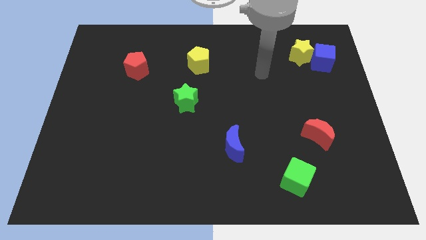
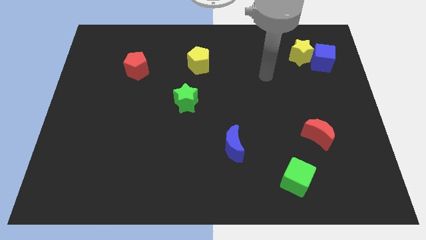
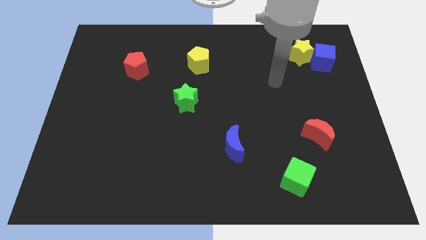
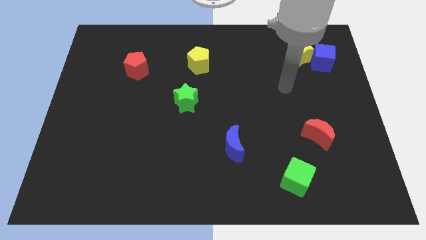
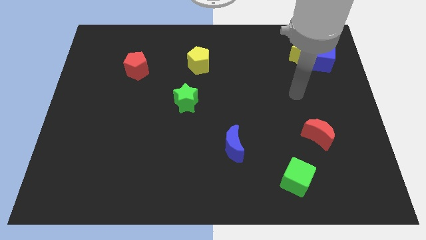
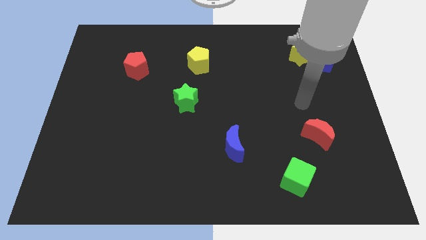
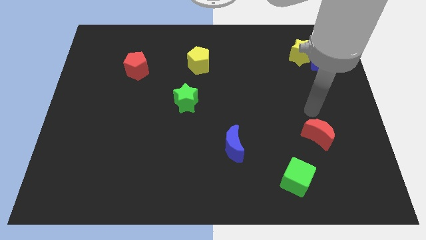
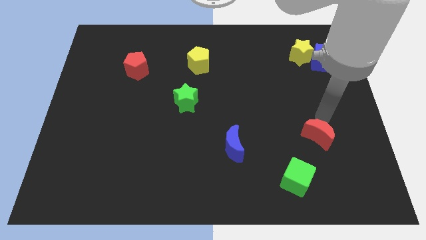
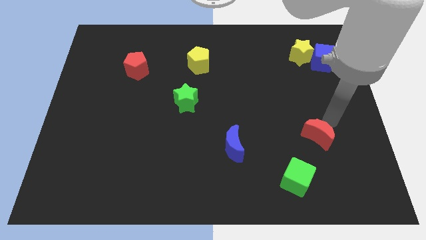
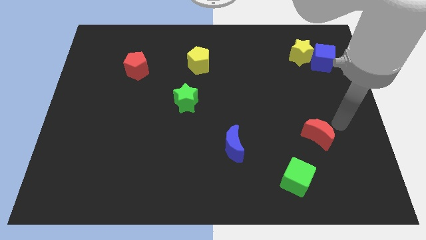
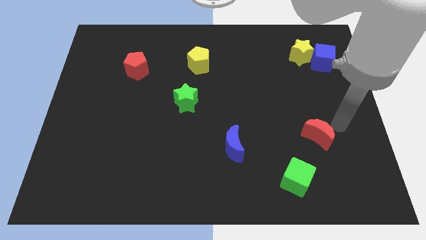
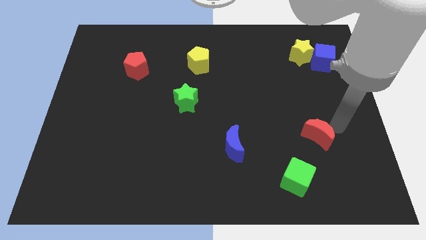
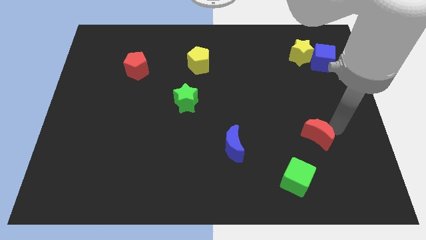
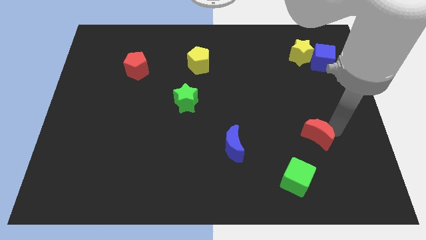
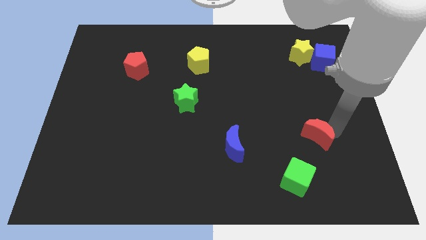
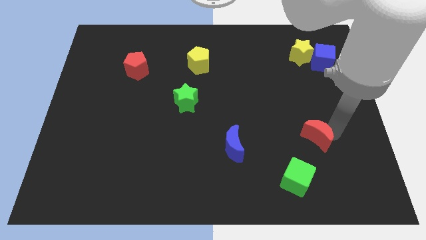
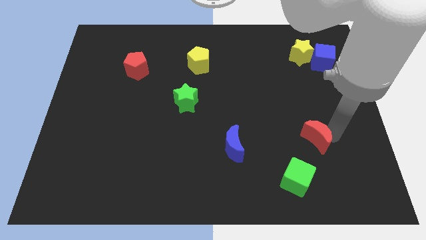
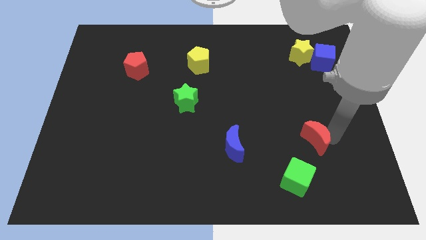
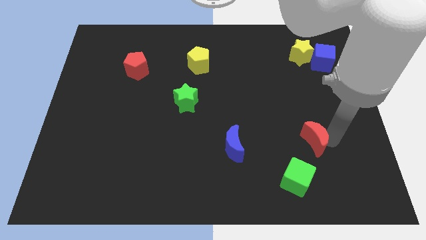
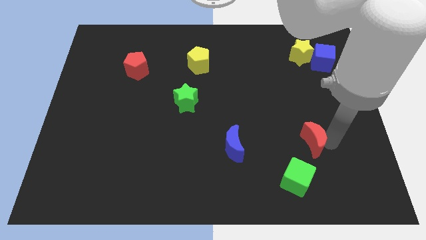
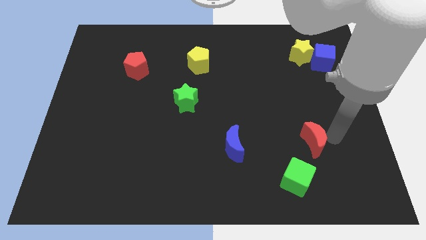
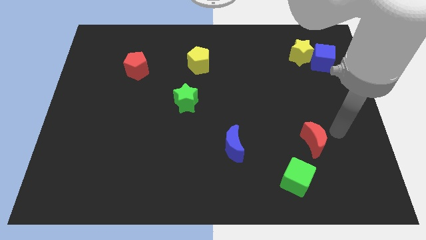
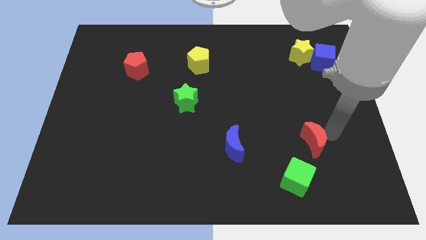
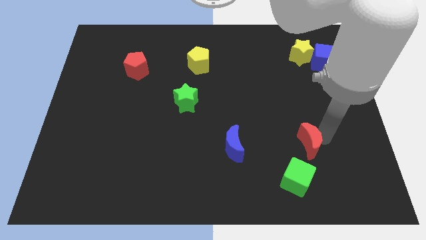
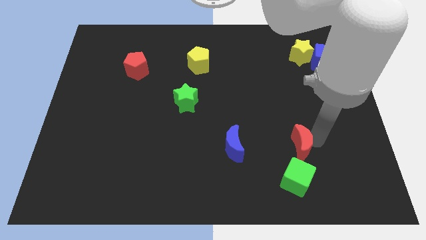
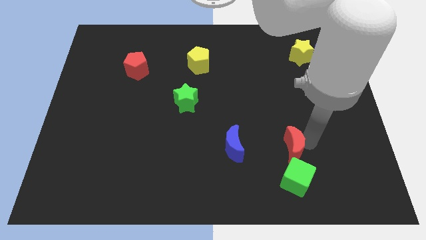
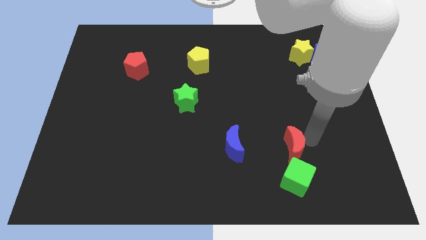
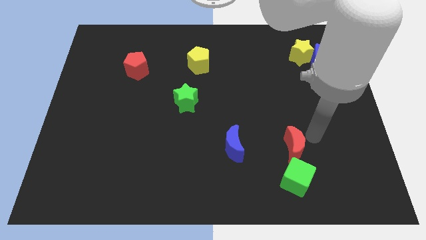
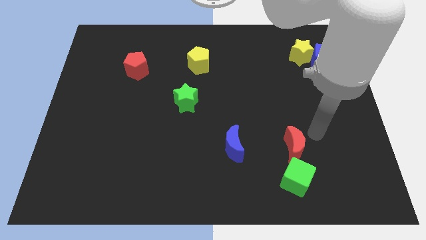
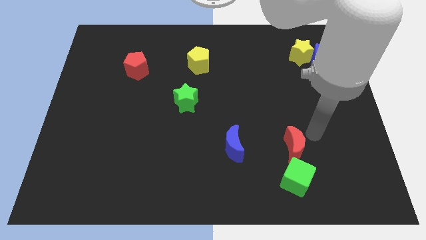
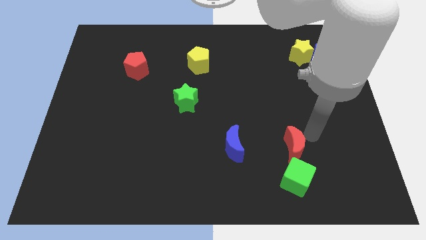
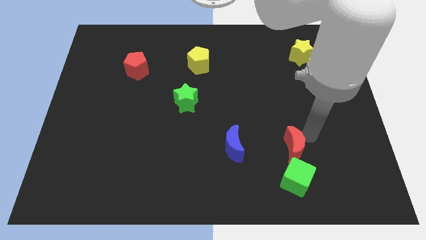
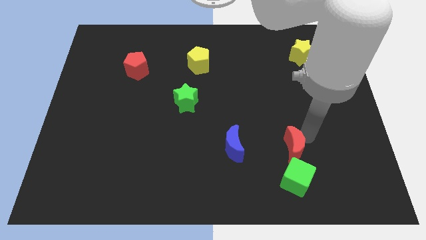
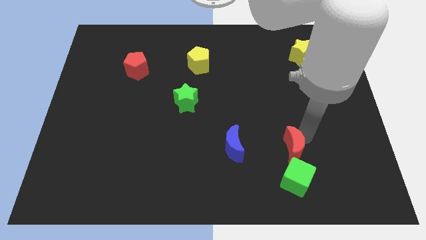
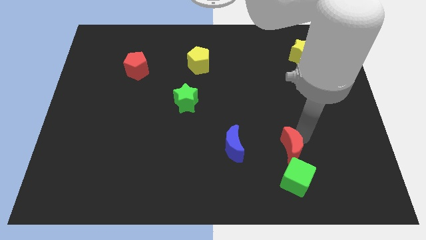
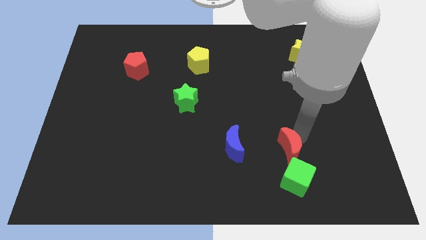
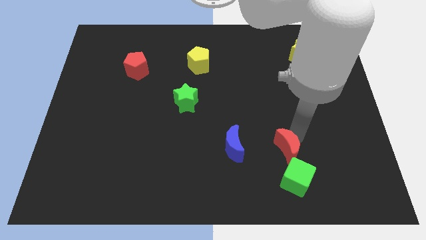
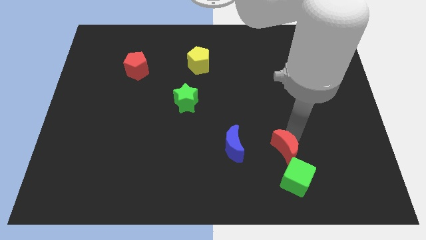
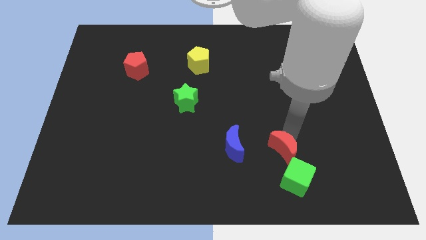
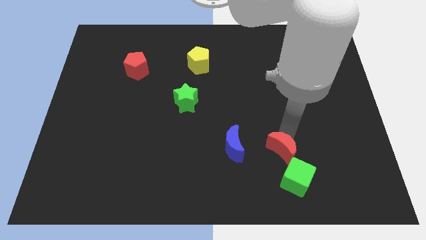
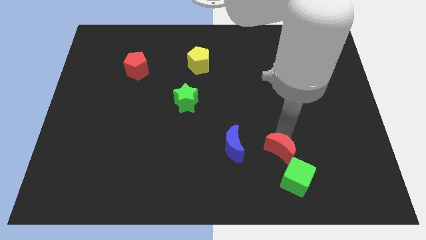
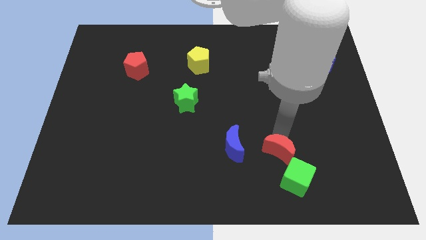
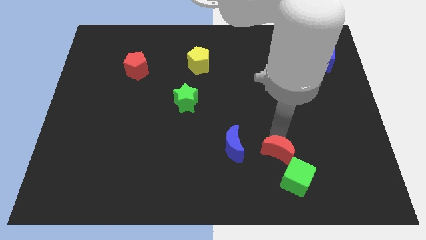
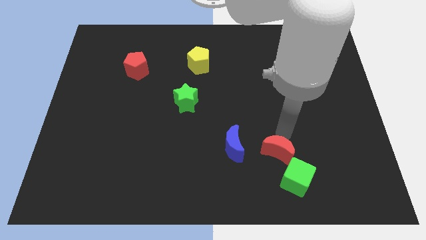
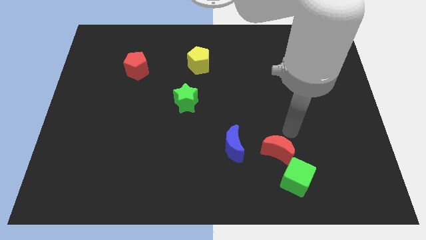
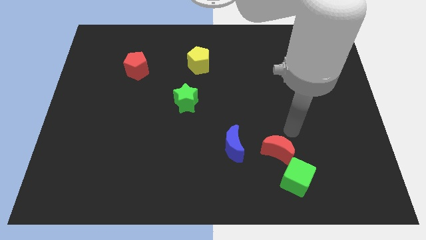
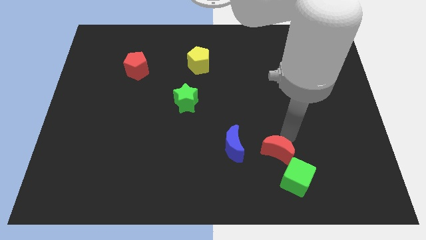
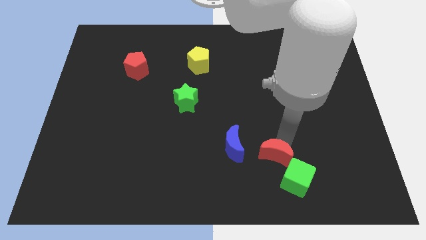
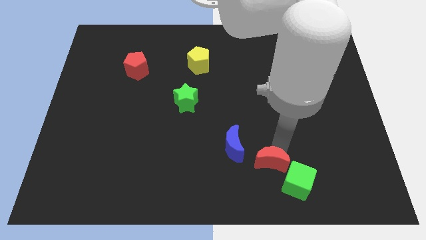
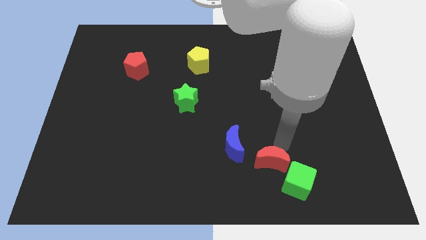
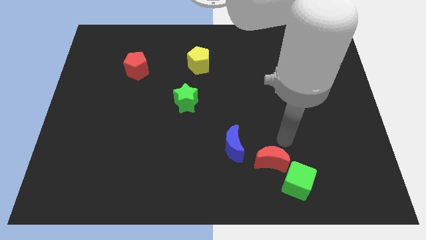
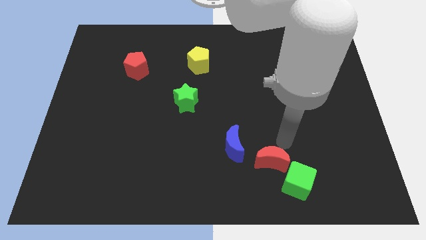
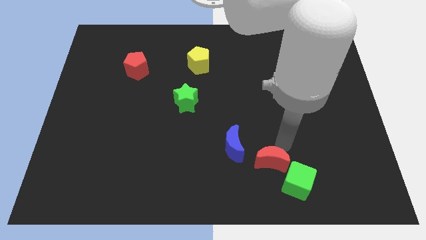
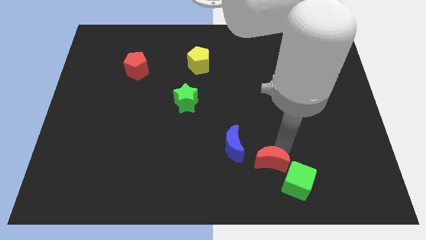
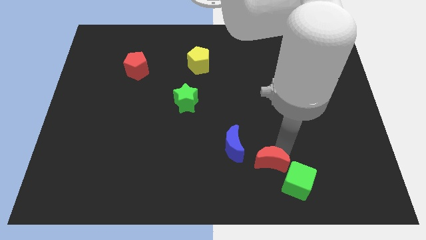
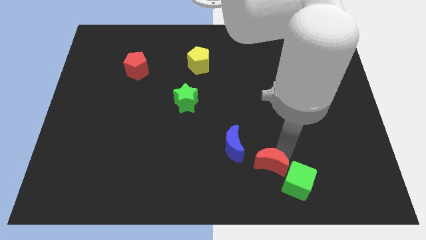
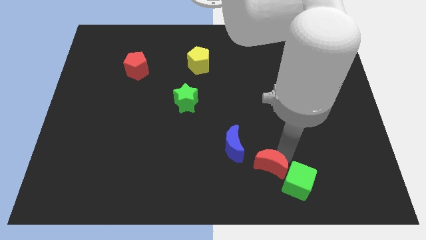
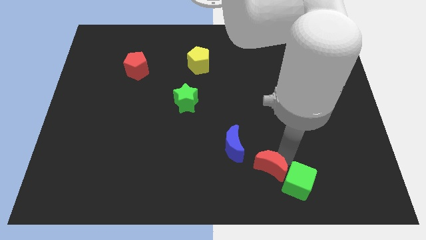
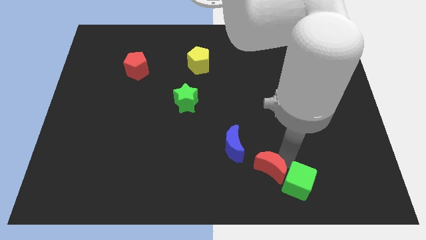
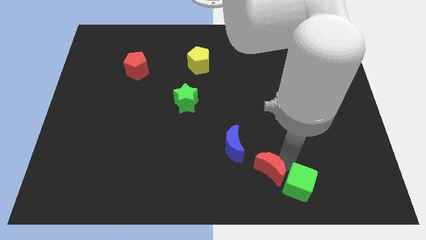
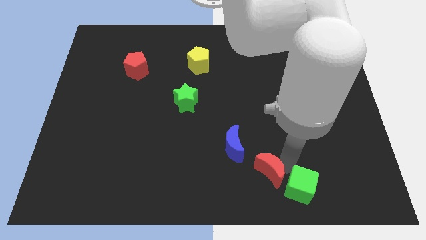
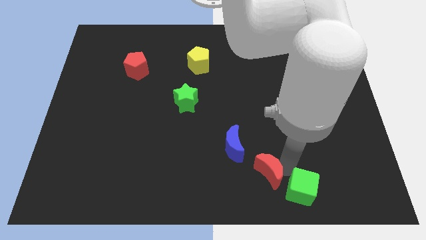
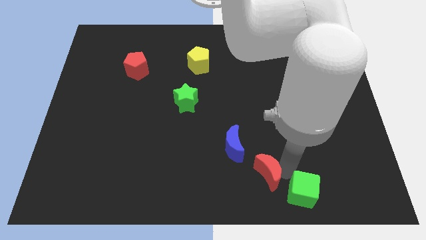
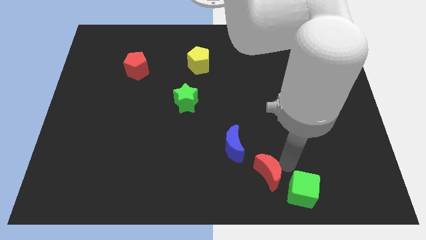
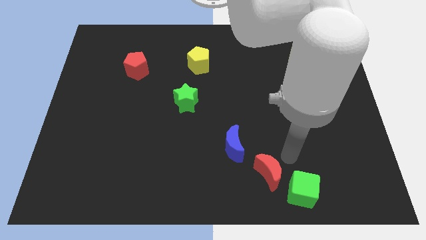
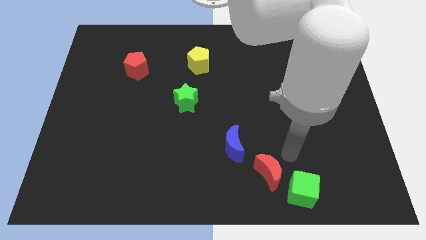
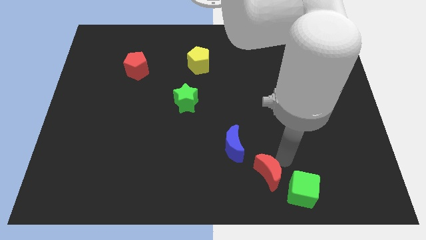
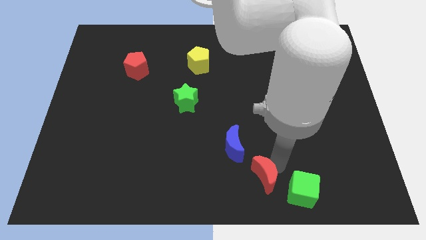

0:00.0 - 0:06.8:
push the red moon to the bottom side
